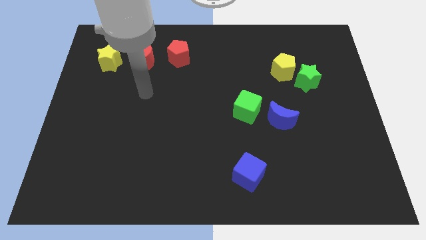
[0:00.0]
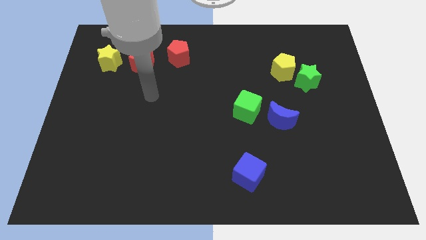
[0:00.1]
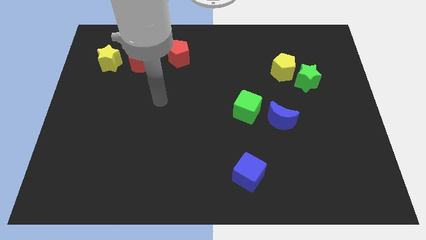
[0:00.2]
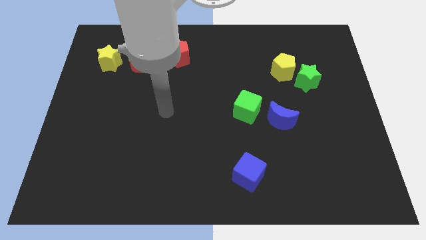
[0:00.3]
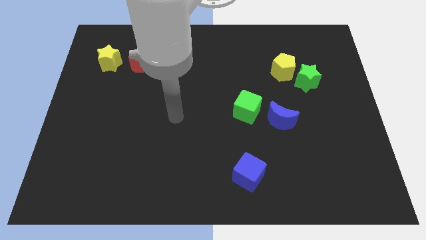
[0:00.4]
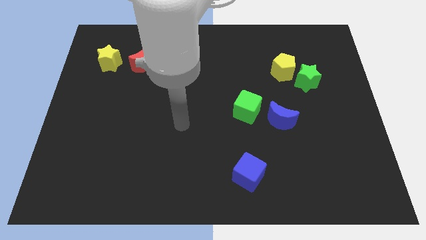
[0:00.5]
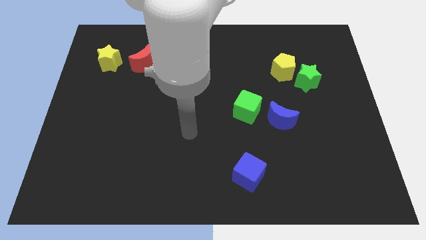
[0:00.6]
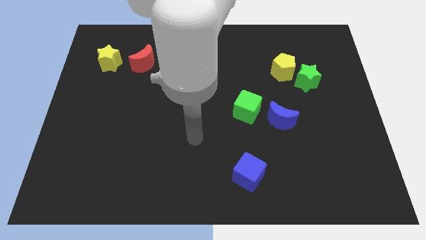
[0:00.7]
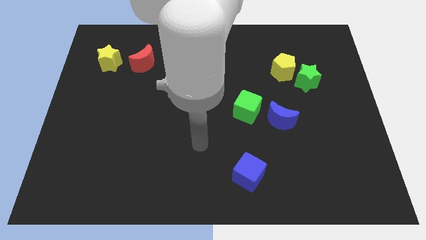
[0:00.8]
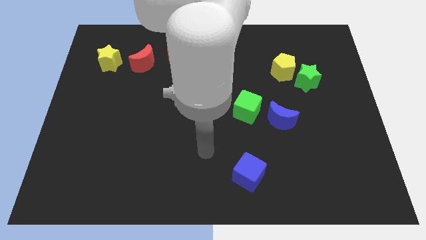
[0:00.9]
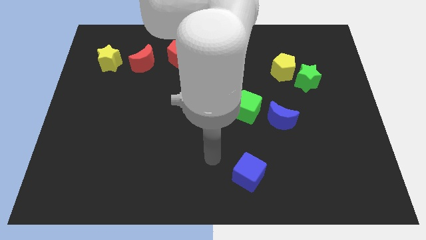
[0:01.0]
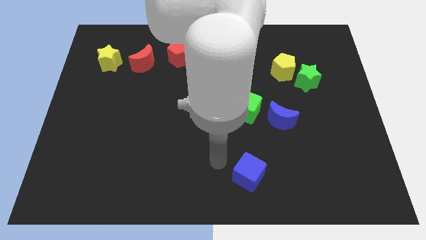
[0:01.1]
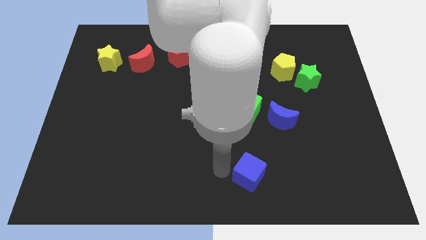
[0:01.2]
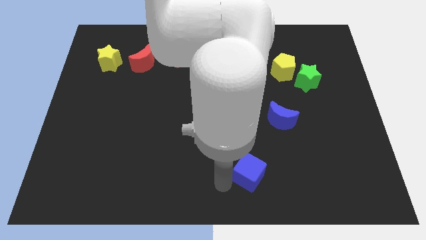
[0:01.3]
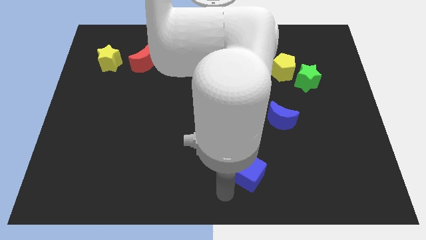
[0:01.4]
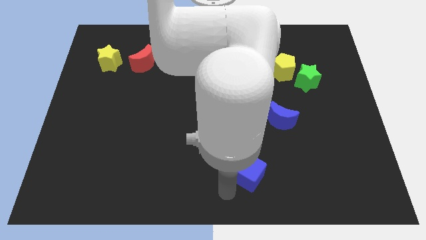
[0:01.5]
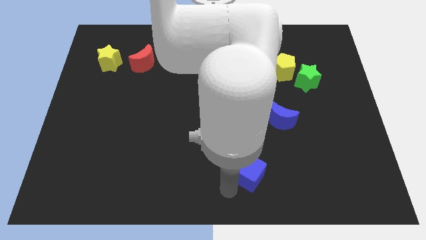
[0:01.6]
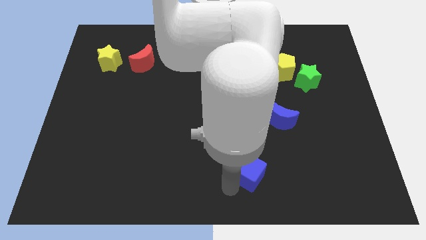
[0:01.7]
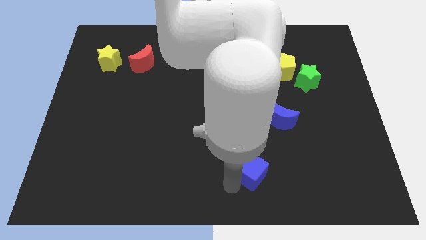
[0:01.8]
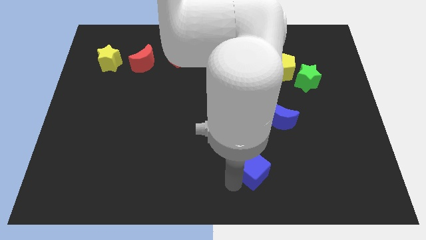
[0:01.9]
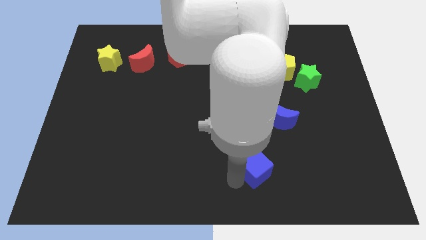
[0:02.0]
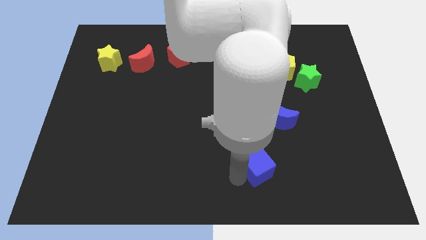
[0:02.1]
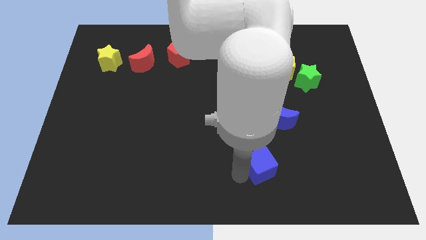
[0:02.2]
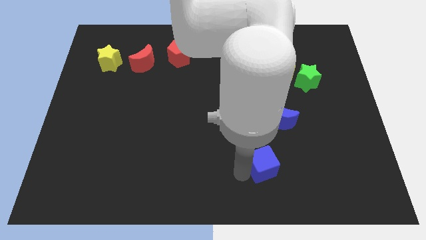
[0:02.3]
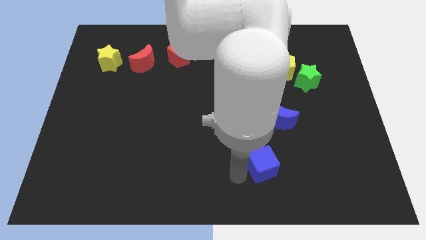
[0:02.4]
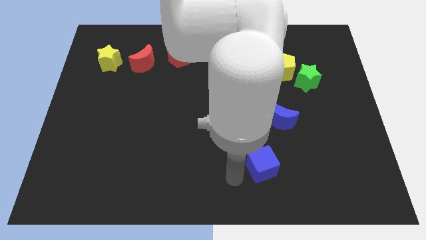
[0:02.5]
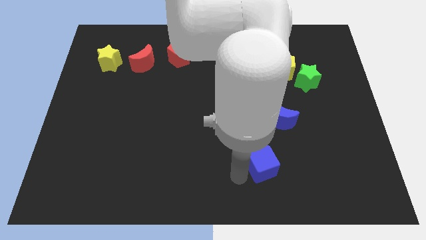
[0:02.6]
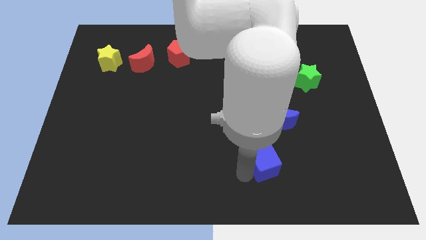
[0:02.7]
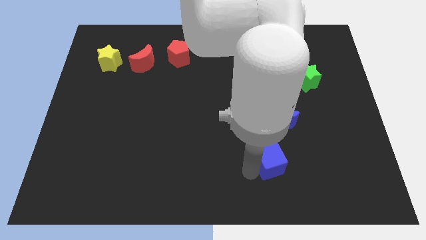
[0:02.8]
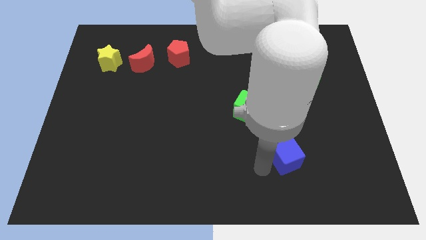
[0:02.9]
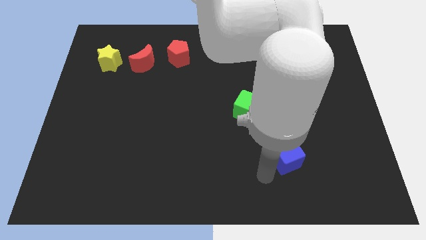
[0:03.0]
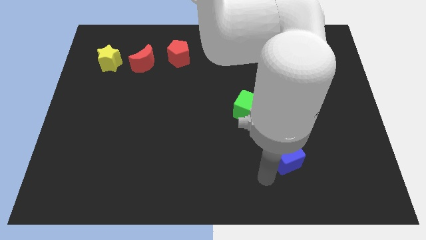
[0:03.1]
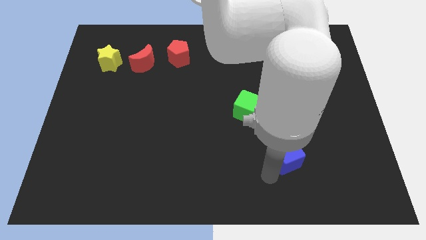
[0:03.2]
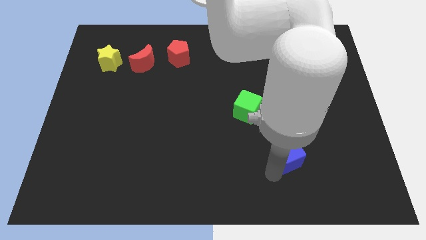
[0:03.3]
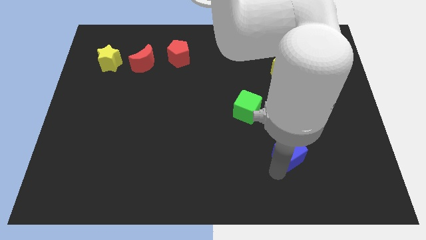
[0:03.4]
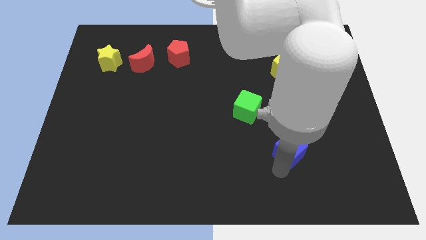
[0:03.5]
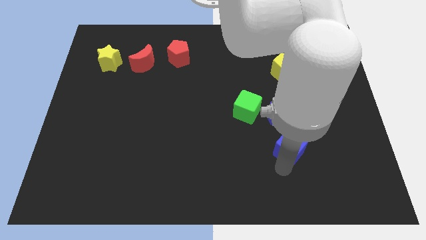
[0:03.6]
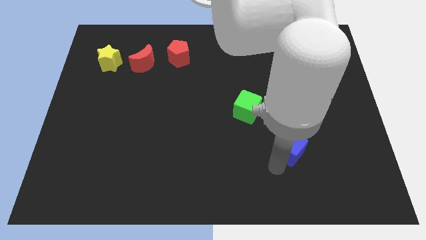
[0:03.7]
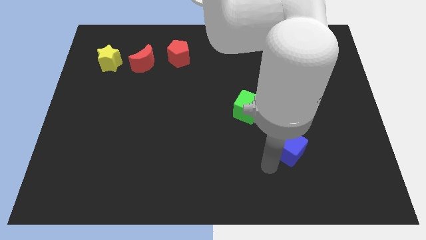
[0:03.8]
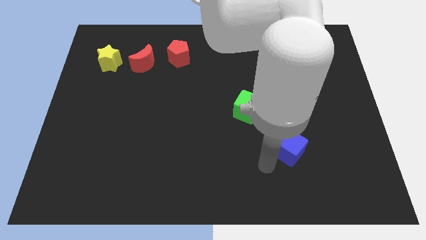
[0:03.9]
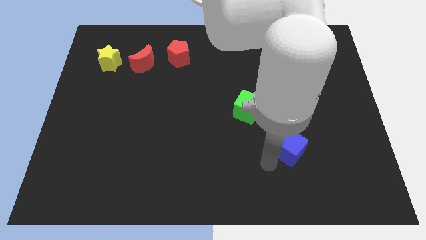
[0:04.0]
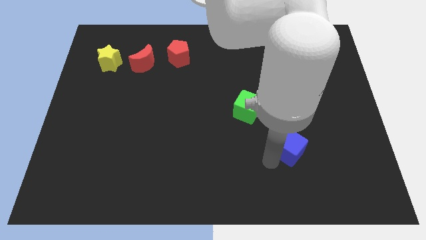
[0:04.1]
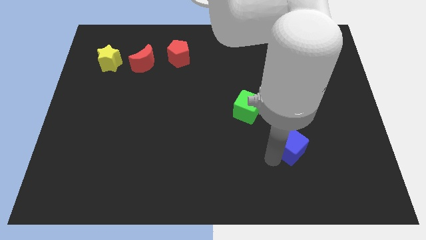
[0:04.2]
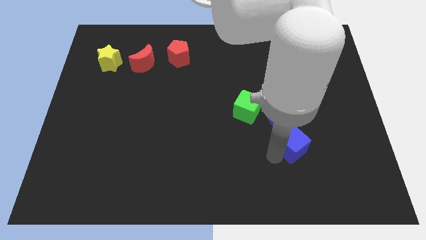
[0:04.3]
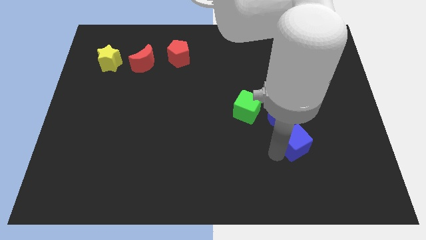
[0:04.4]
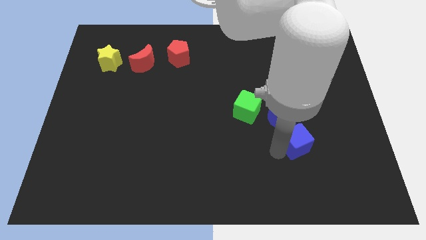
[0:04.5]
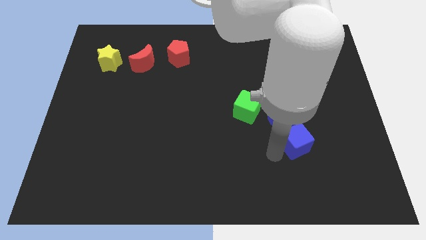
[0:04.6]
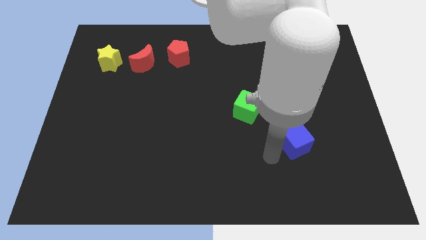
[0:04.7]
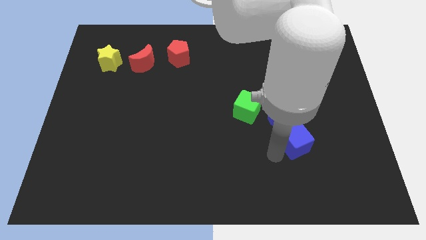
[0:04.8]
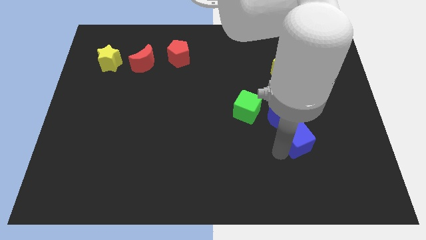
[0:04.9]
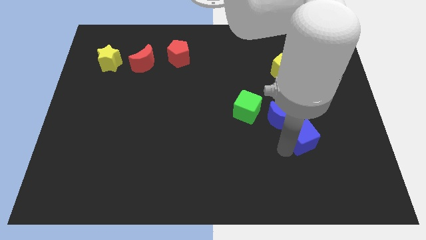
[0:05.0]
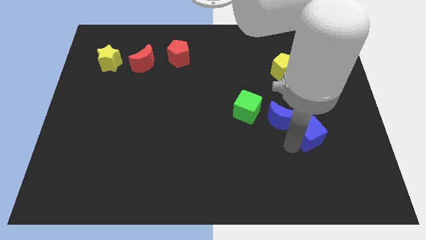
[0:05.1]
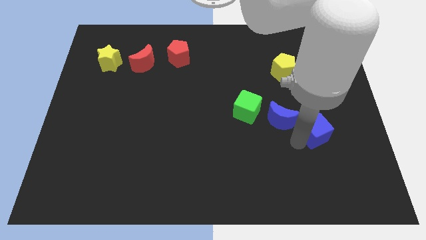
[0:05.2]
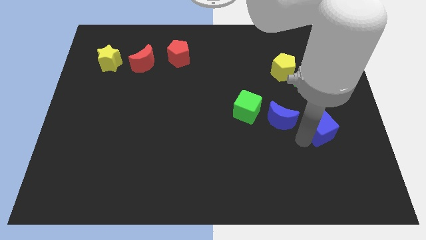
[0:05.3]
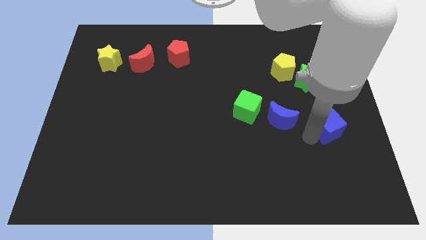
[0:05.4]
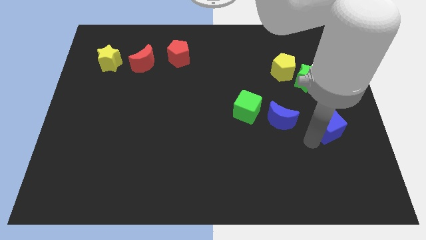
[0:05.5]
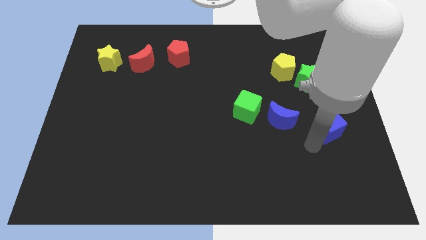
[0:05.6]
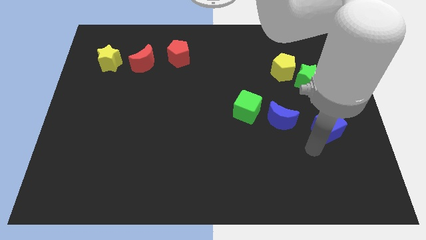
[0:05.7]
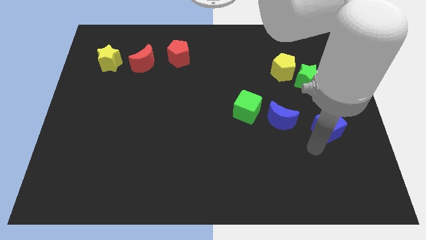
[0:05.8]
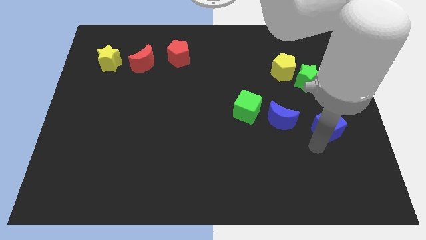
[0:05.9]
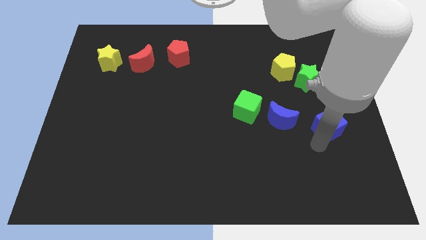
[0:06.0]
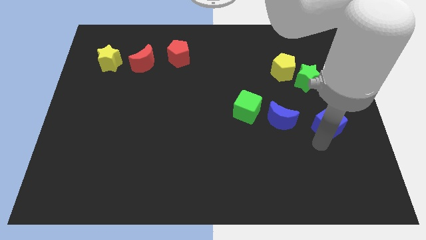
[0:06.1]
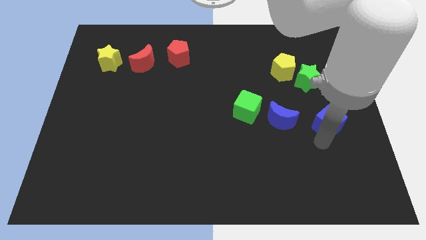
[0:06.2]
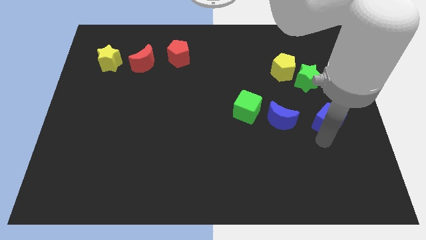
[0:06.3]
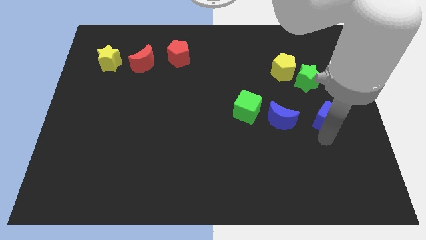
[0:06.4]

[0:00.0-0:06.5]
put the blue cube to the right side of the board
